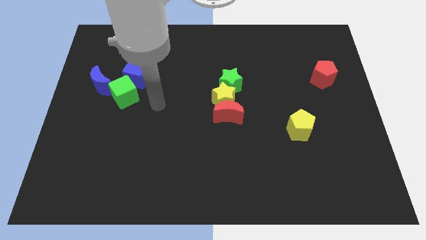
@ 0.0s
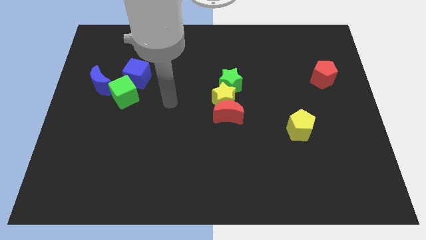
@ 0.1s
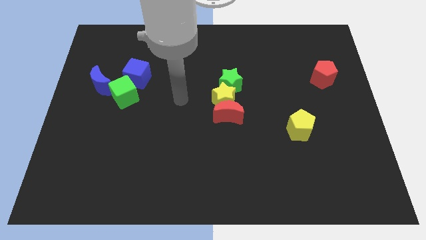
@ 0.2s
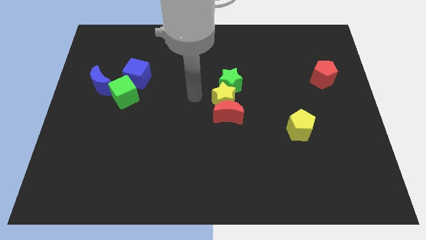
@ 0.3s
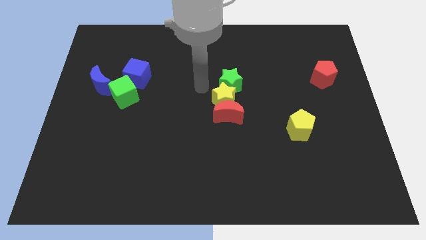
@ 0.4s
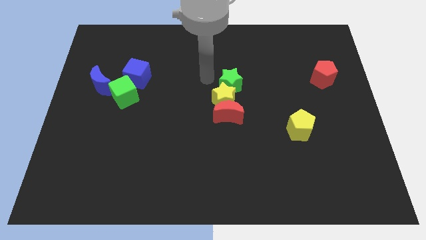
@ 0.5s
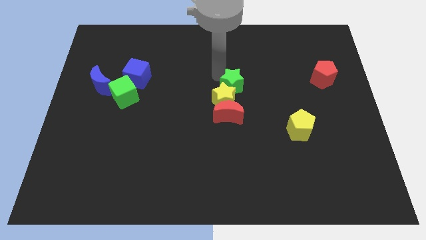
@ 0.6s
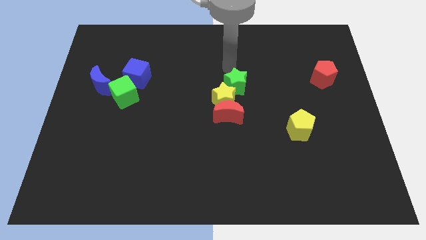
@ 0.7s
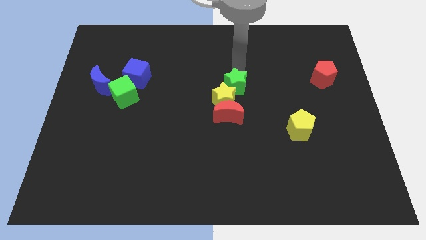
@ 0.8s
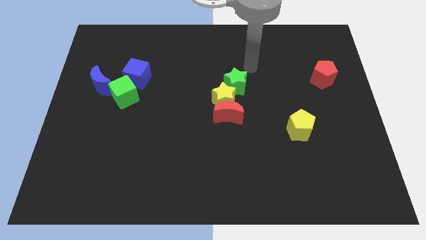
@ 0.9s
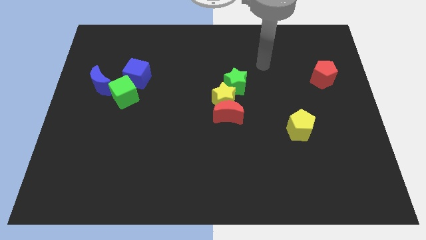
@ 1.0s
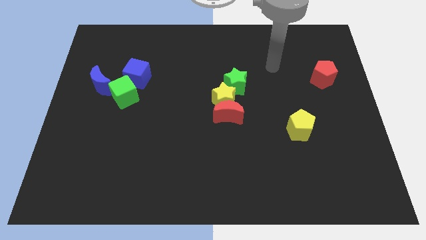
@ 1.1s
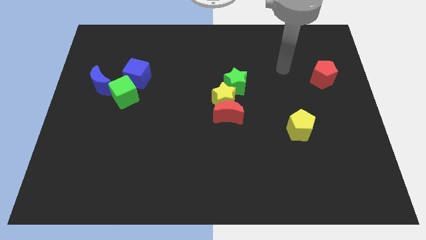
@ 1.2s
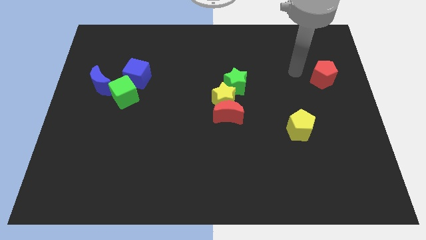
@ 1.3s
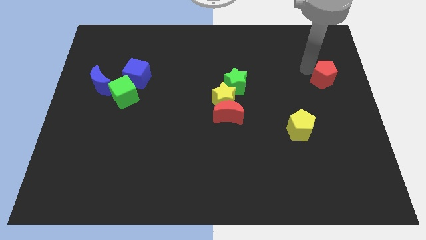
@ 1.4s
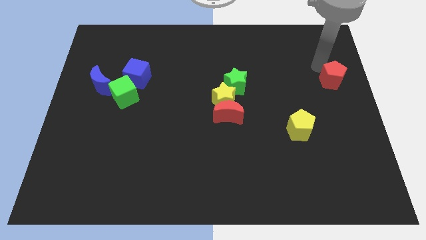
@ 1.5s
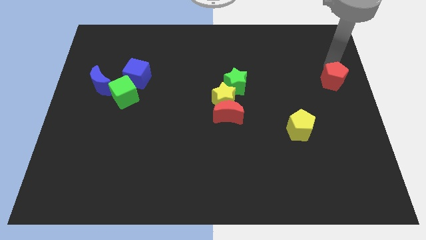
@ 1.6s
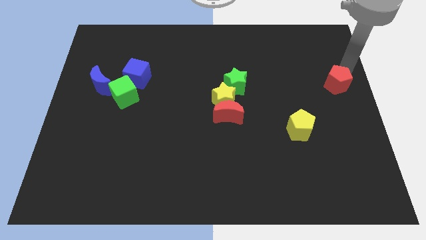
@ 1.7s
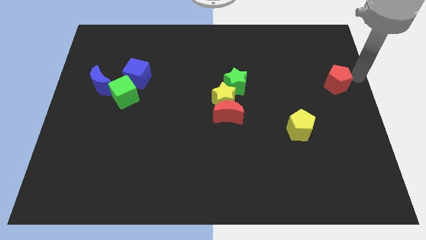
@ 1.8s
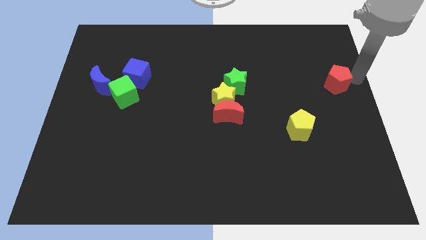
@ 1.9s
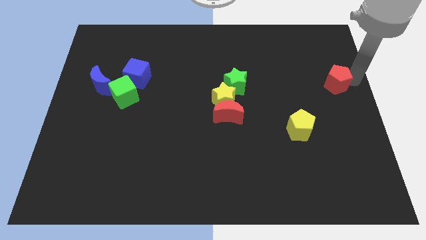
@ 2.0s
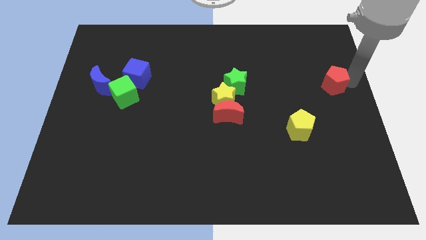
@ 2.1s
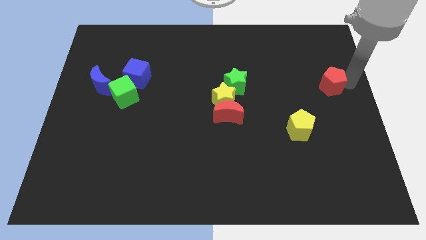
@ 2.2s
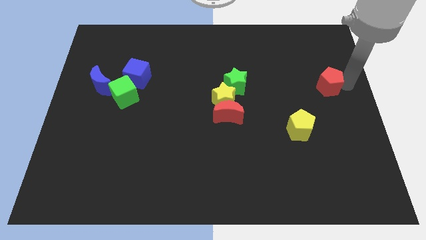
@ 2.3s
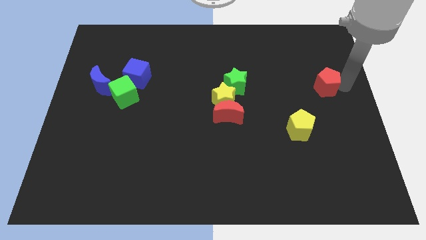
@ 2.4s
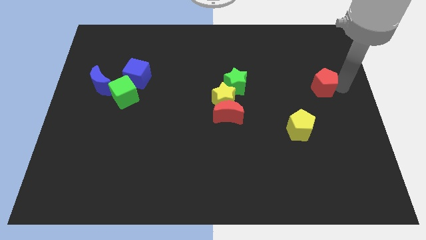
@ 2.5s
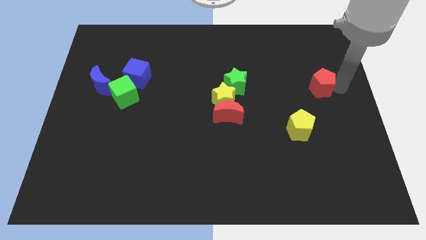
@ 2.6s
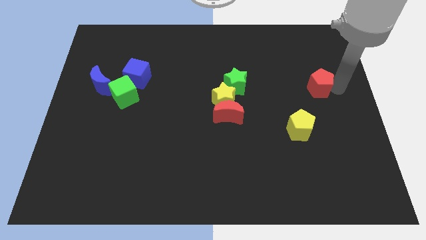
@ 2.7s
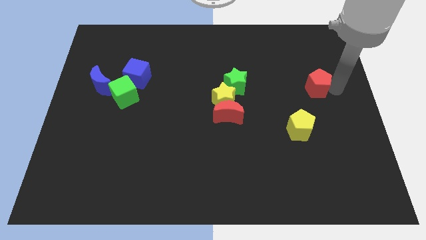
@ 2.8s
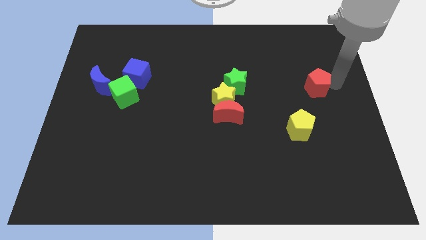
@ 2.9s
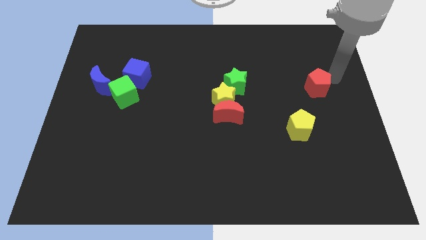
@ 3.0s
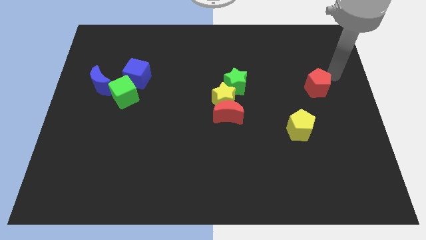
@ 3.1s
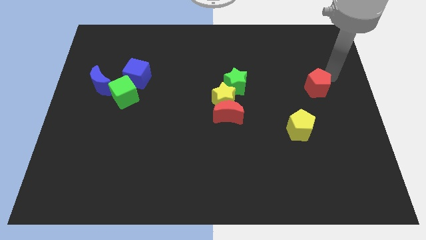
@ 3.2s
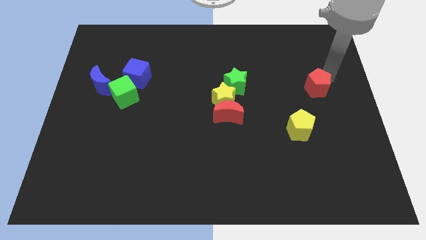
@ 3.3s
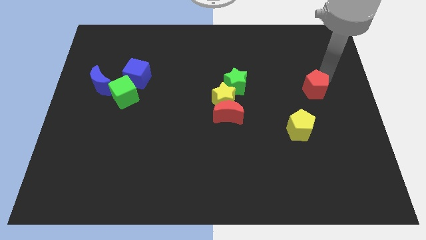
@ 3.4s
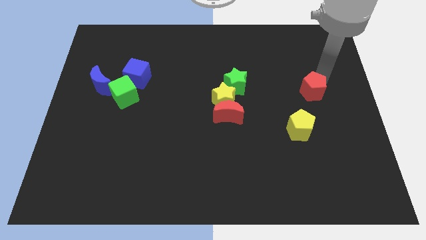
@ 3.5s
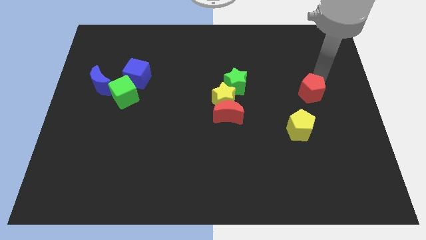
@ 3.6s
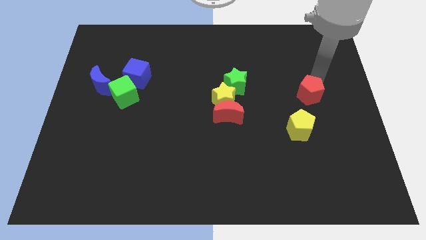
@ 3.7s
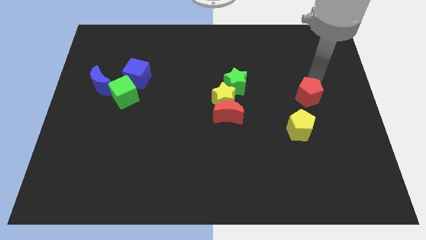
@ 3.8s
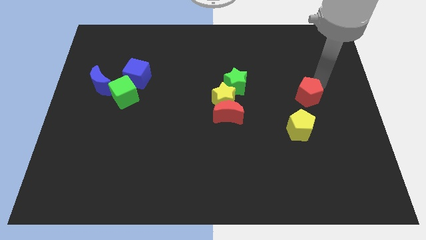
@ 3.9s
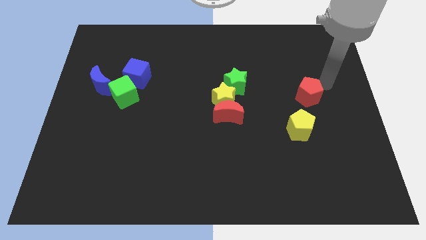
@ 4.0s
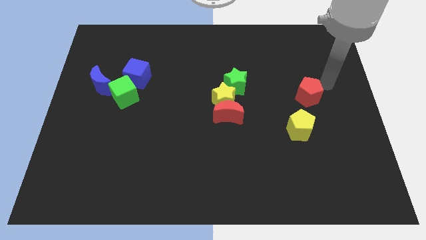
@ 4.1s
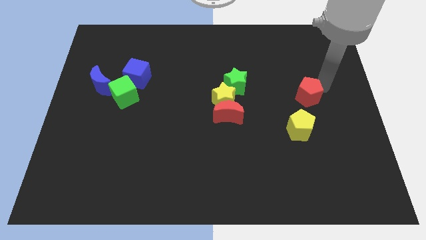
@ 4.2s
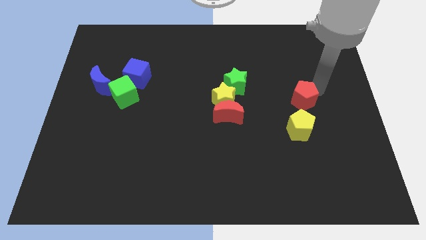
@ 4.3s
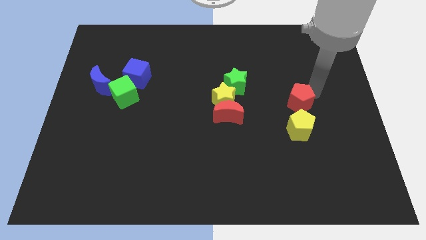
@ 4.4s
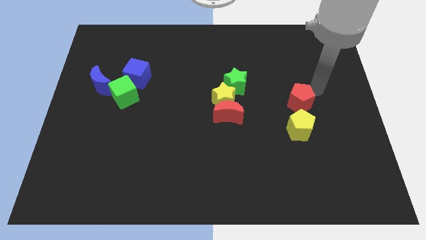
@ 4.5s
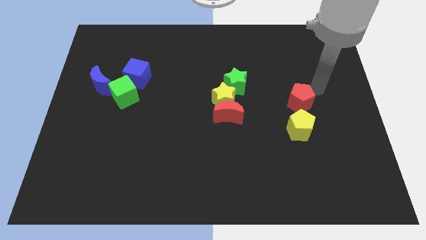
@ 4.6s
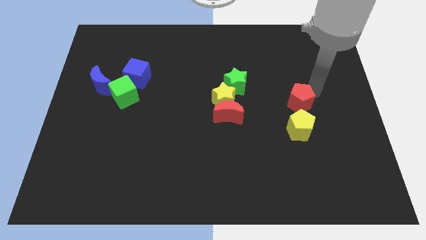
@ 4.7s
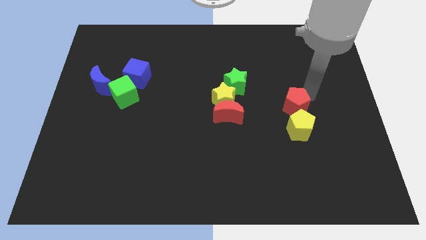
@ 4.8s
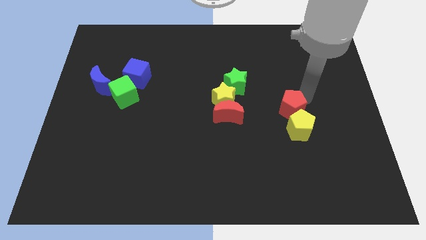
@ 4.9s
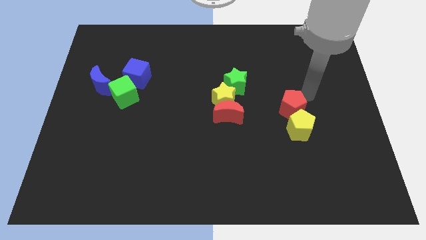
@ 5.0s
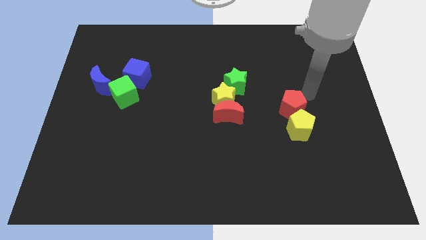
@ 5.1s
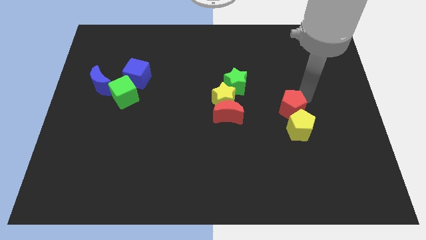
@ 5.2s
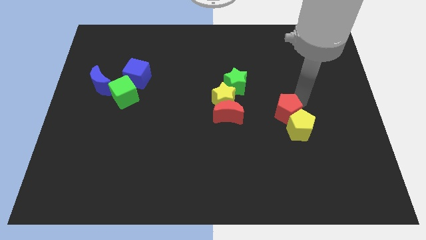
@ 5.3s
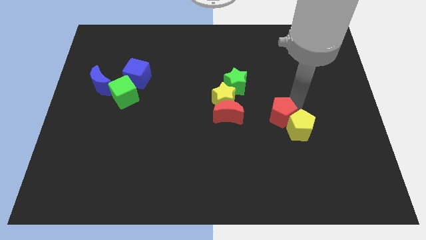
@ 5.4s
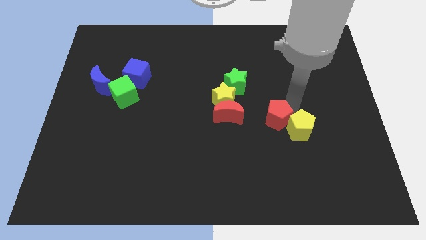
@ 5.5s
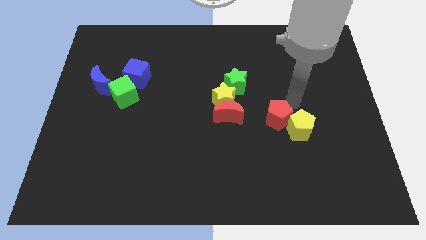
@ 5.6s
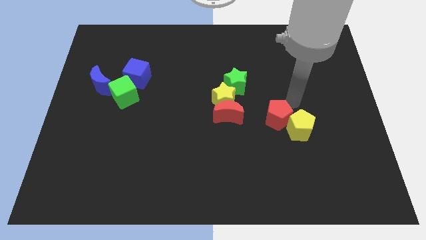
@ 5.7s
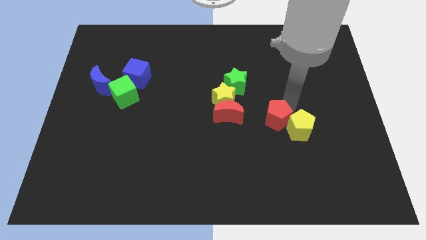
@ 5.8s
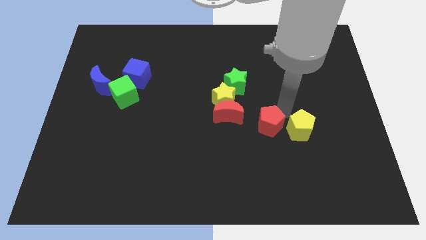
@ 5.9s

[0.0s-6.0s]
move the red pentagon down and to the left

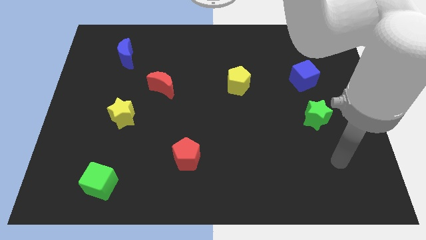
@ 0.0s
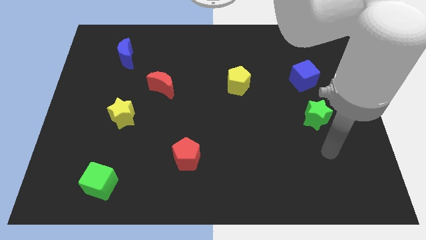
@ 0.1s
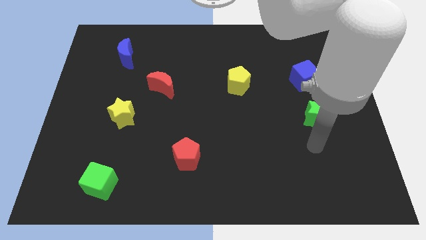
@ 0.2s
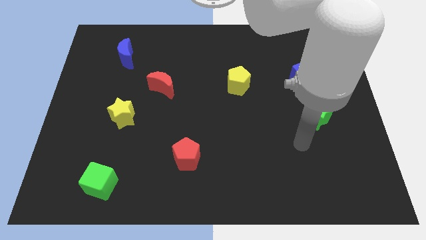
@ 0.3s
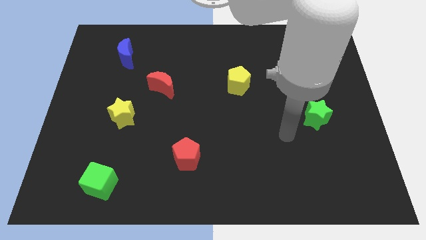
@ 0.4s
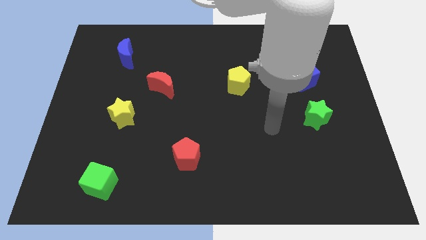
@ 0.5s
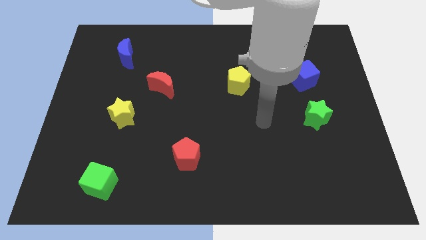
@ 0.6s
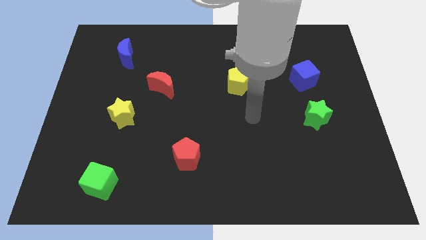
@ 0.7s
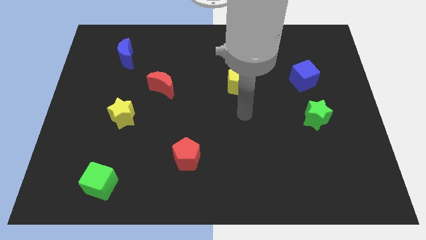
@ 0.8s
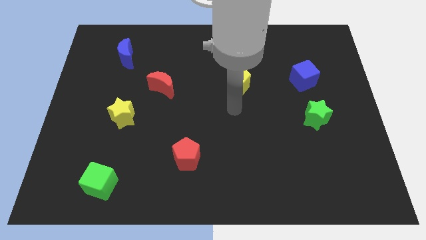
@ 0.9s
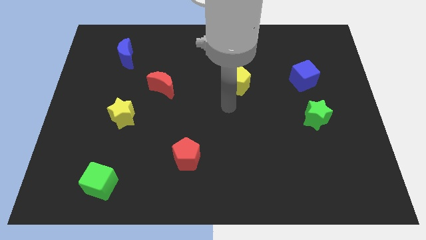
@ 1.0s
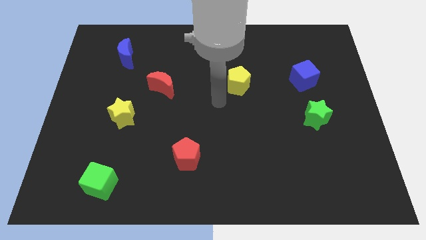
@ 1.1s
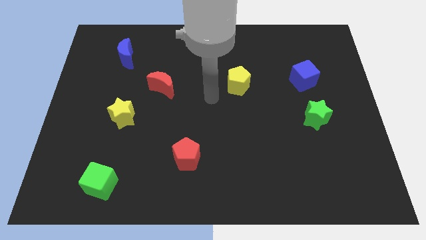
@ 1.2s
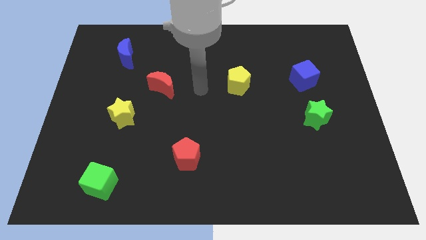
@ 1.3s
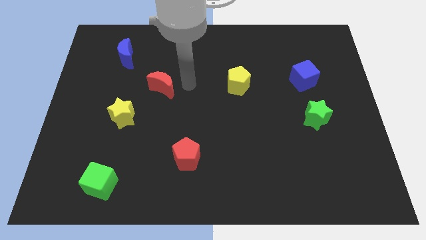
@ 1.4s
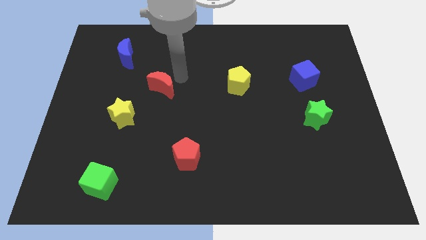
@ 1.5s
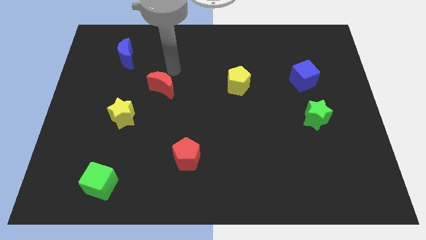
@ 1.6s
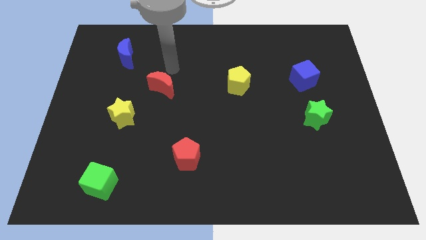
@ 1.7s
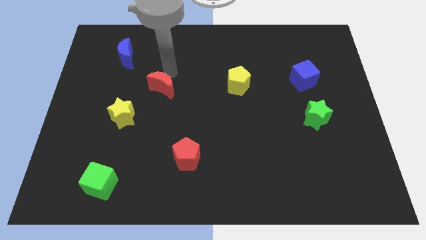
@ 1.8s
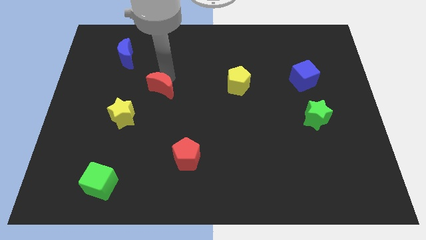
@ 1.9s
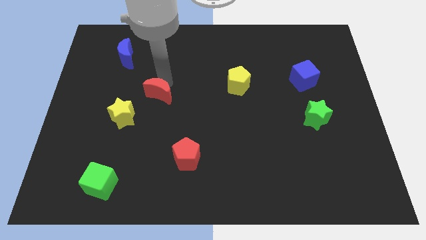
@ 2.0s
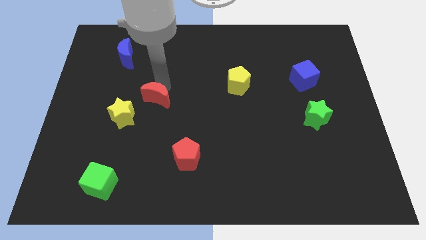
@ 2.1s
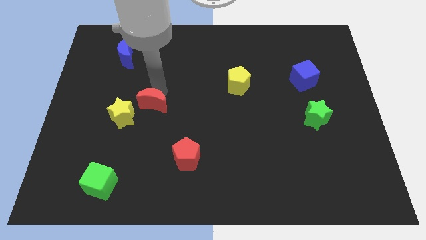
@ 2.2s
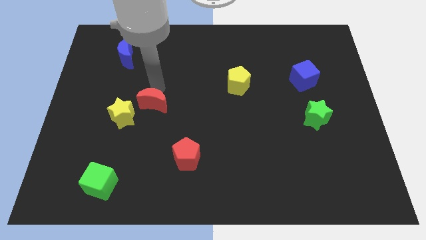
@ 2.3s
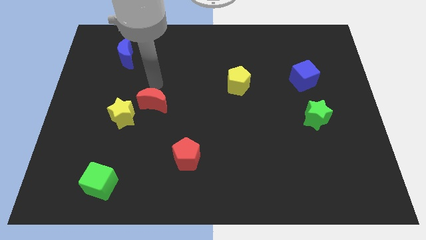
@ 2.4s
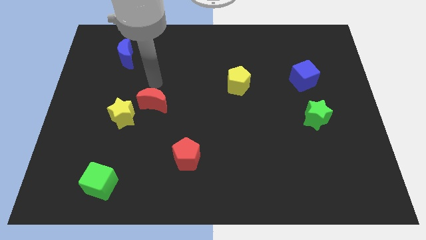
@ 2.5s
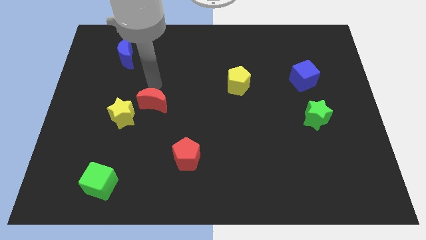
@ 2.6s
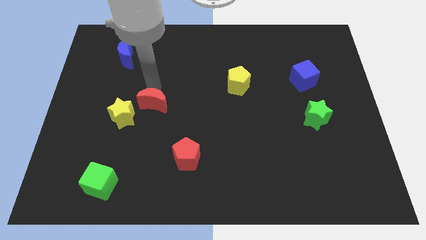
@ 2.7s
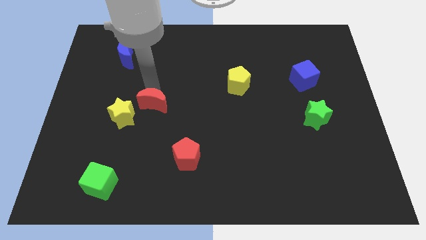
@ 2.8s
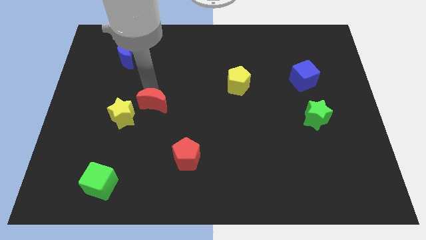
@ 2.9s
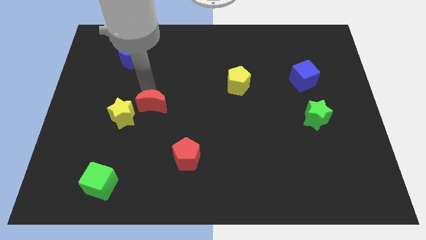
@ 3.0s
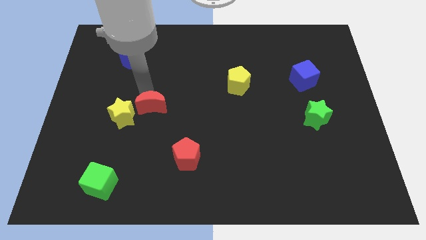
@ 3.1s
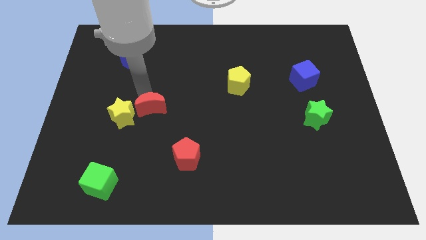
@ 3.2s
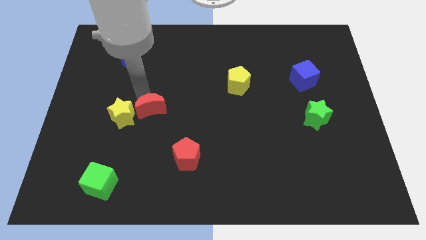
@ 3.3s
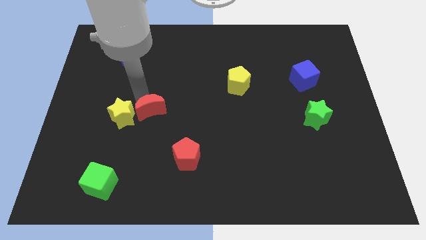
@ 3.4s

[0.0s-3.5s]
slide the red moon a little bit downwards
